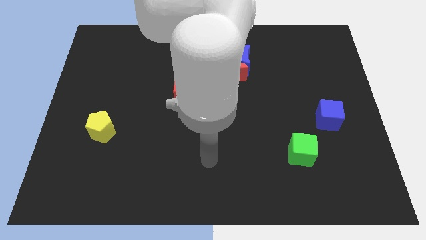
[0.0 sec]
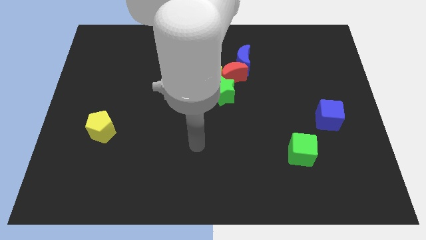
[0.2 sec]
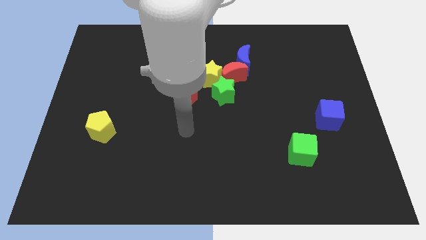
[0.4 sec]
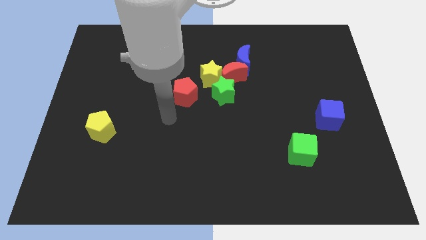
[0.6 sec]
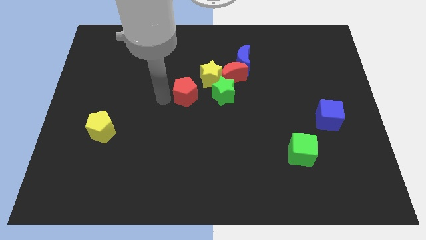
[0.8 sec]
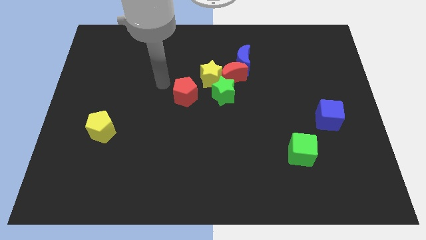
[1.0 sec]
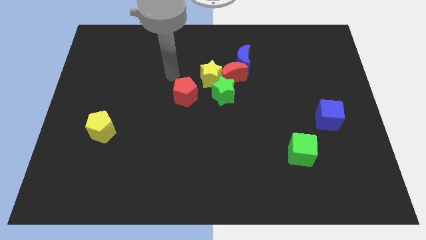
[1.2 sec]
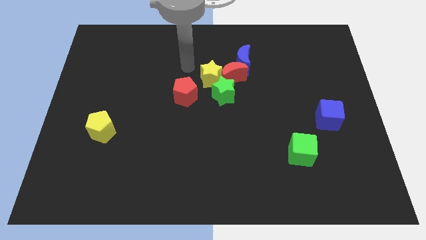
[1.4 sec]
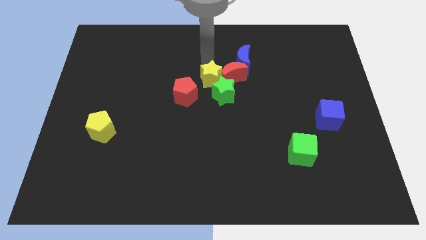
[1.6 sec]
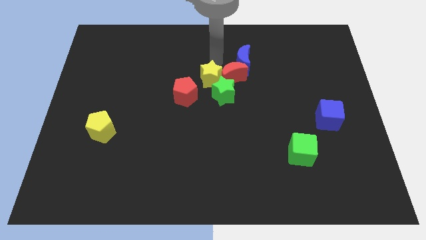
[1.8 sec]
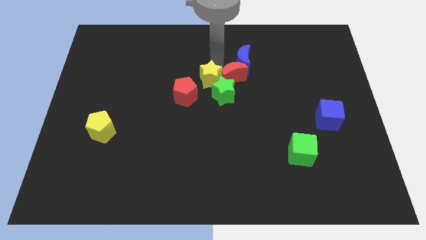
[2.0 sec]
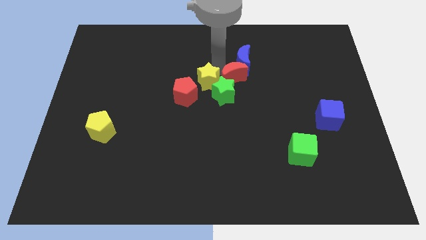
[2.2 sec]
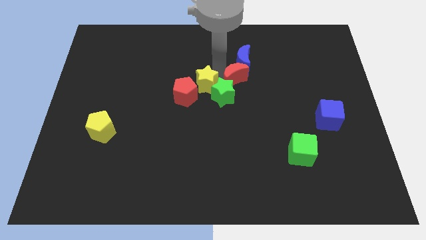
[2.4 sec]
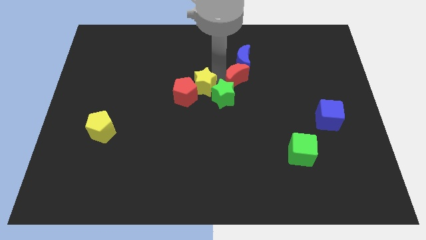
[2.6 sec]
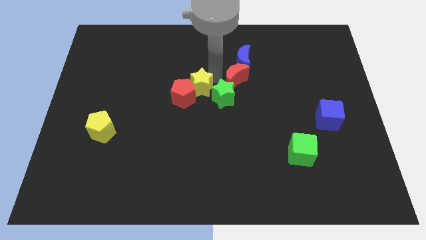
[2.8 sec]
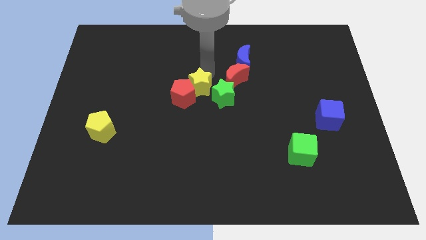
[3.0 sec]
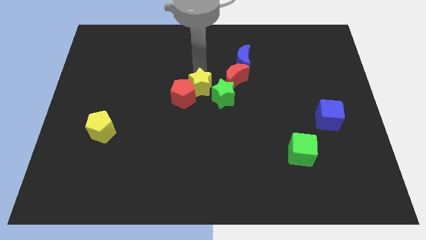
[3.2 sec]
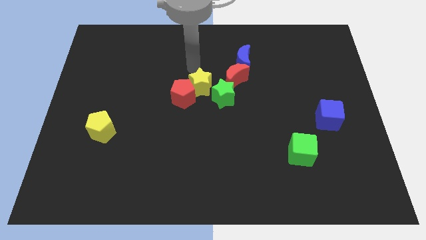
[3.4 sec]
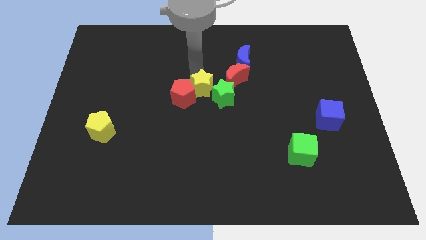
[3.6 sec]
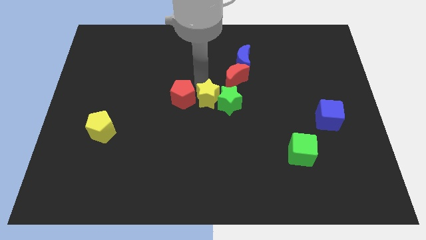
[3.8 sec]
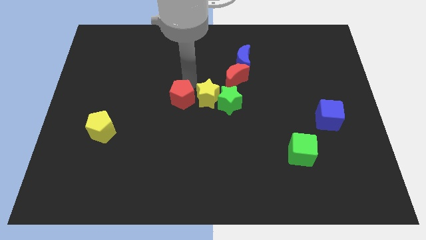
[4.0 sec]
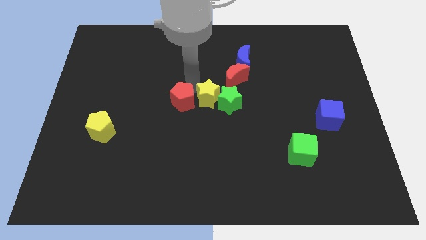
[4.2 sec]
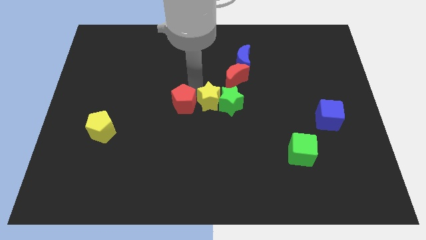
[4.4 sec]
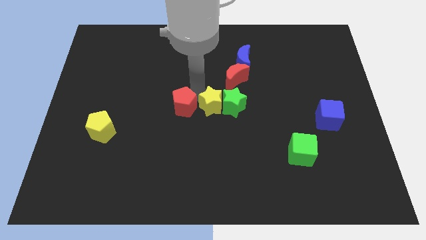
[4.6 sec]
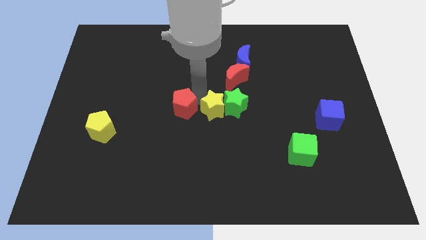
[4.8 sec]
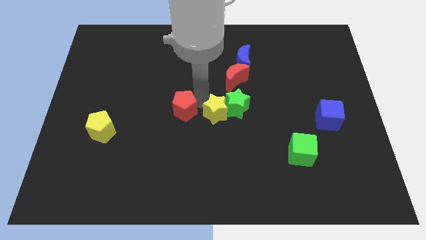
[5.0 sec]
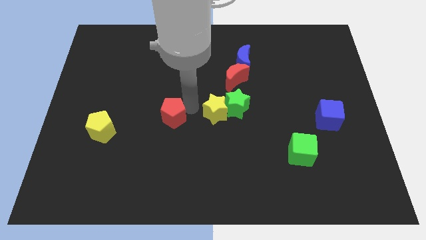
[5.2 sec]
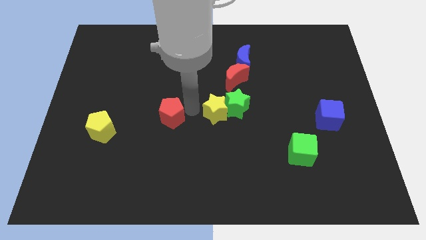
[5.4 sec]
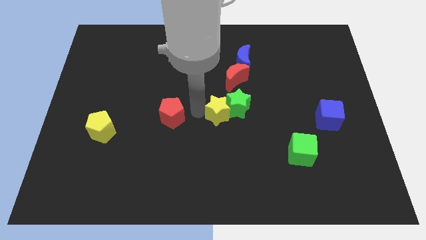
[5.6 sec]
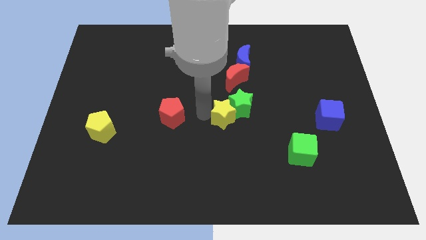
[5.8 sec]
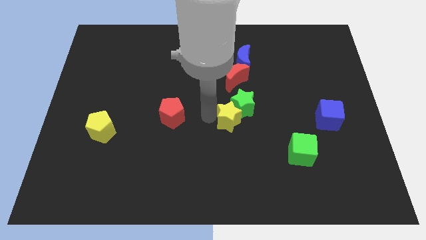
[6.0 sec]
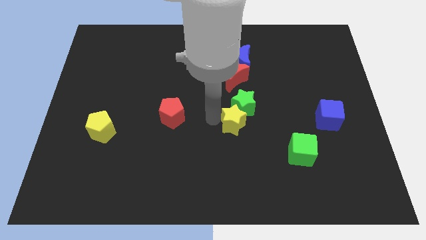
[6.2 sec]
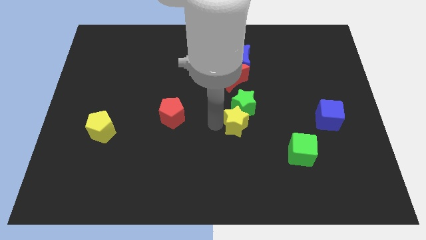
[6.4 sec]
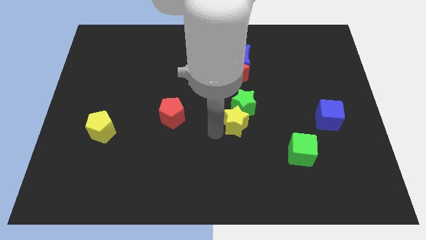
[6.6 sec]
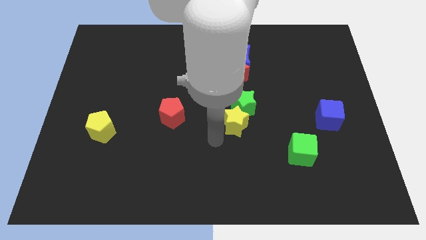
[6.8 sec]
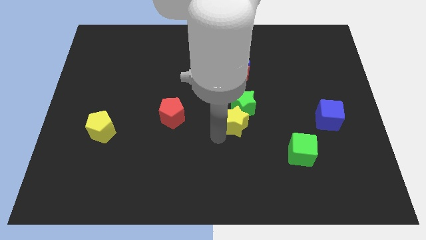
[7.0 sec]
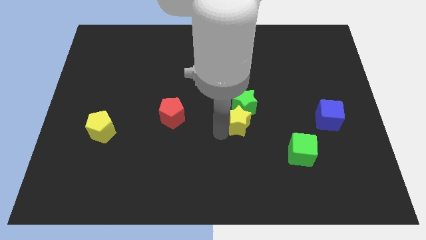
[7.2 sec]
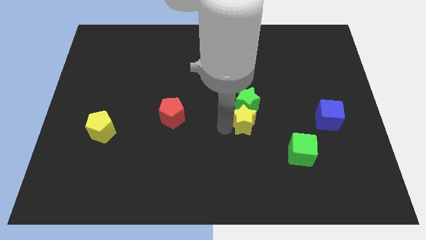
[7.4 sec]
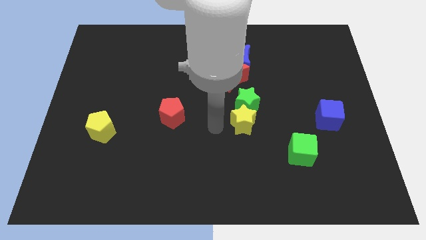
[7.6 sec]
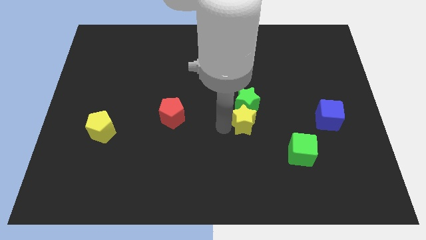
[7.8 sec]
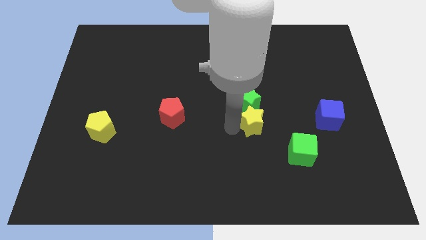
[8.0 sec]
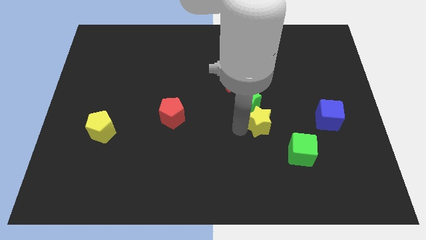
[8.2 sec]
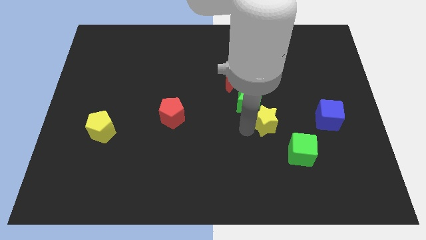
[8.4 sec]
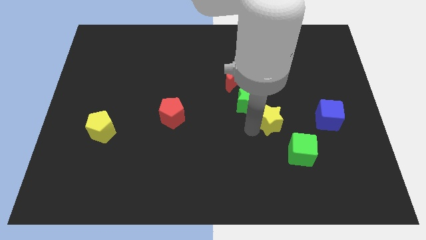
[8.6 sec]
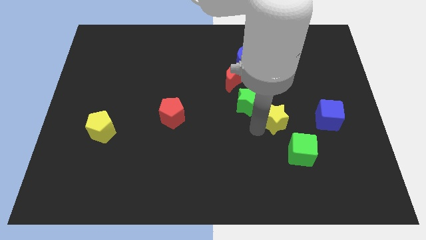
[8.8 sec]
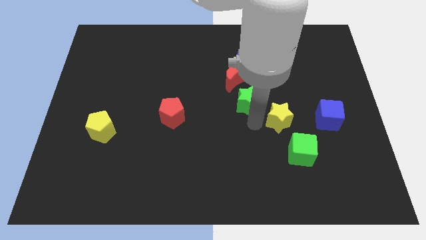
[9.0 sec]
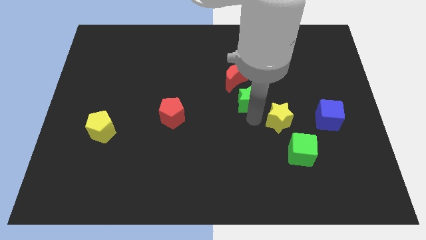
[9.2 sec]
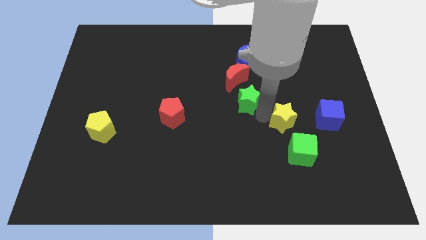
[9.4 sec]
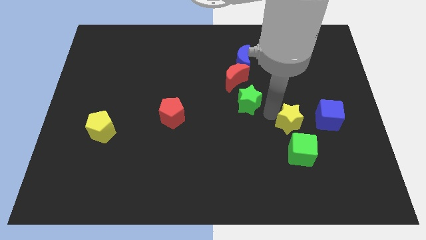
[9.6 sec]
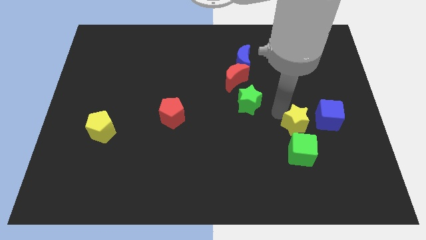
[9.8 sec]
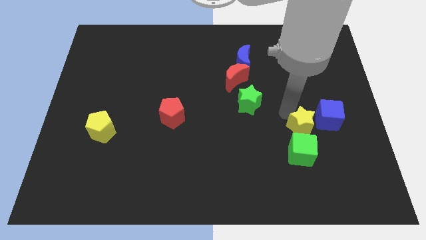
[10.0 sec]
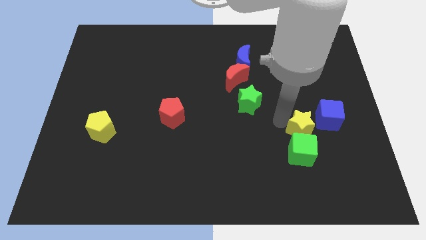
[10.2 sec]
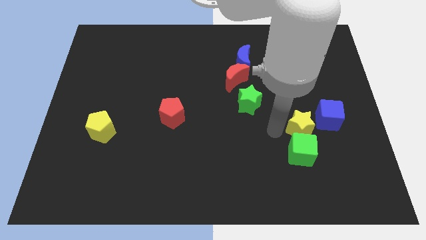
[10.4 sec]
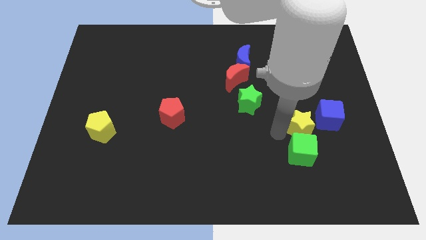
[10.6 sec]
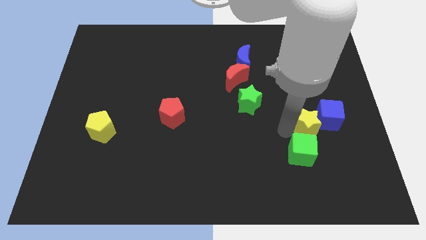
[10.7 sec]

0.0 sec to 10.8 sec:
push the yellow star close to the blue cube

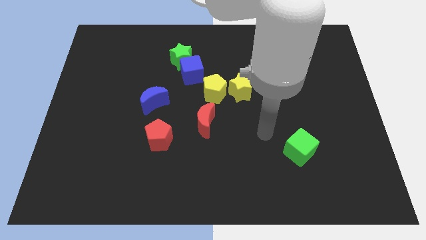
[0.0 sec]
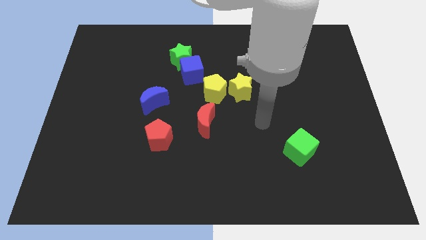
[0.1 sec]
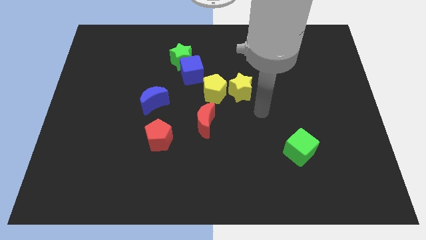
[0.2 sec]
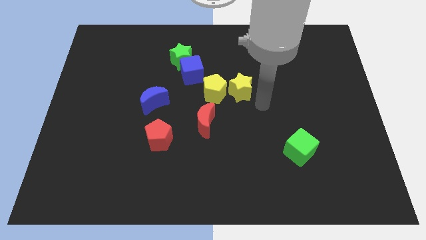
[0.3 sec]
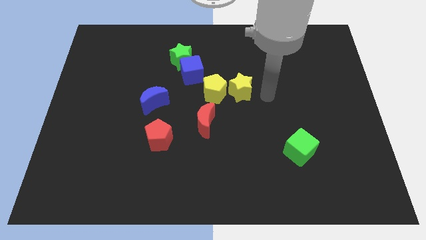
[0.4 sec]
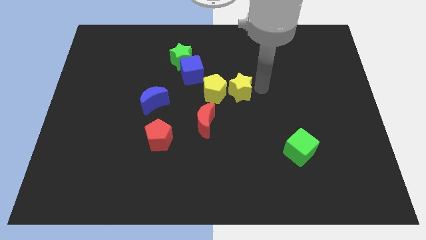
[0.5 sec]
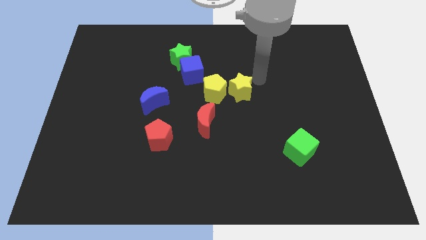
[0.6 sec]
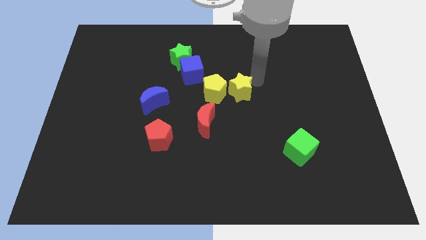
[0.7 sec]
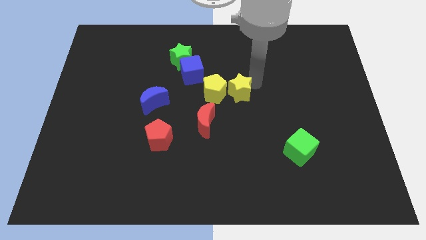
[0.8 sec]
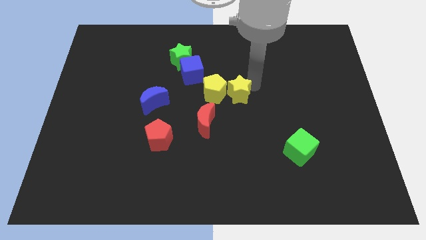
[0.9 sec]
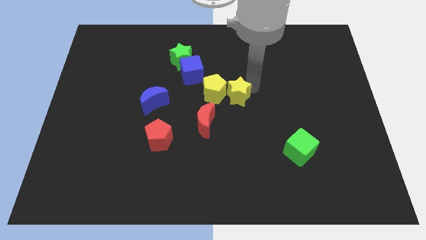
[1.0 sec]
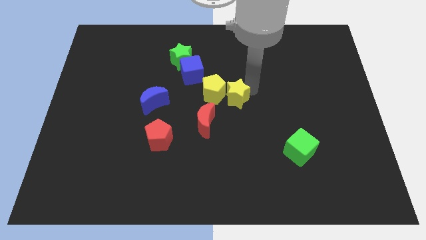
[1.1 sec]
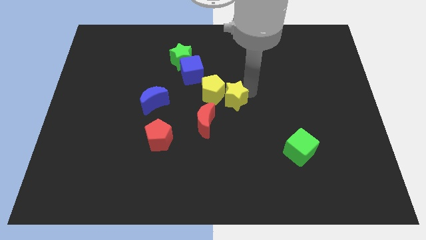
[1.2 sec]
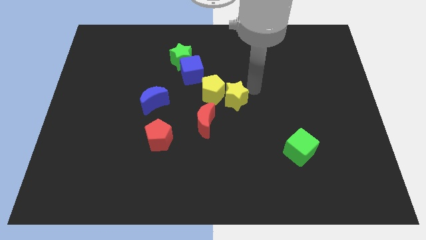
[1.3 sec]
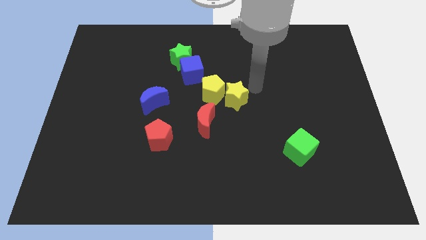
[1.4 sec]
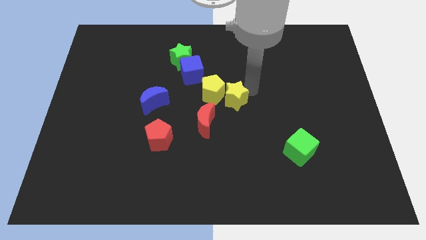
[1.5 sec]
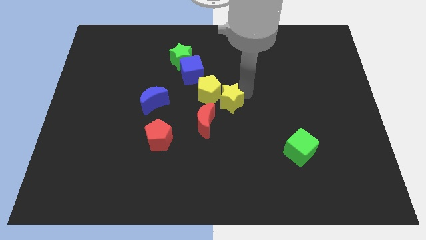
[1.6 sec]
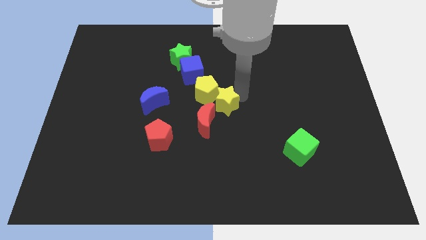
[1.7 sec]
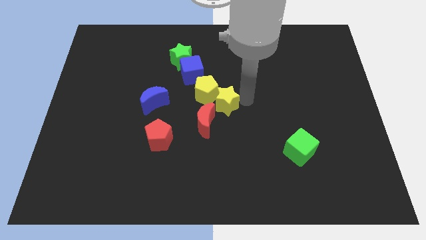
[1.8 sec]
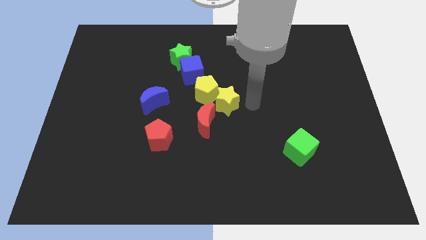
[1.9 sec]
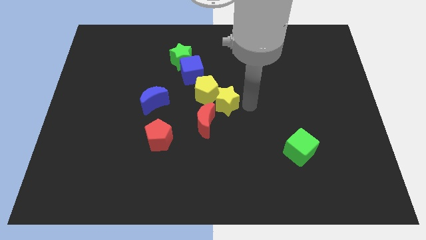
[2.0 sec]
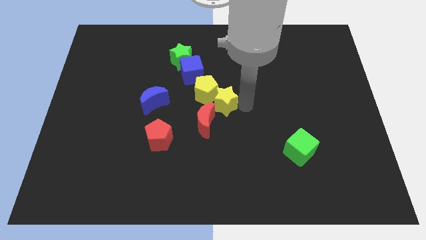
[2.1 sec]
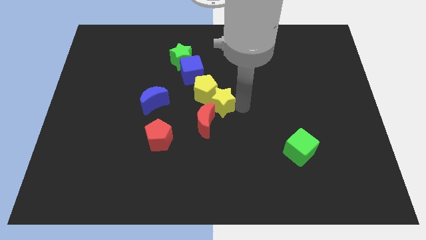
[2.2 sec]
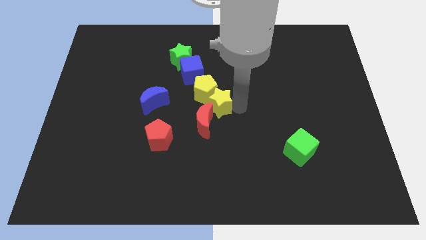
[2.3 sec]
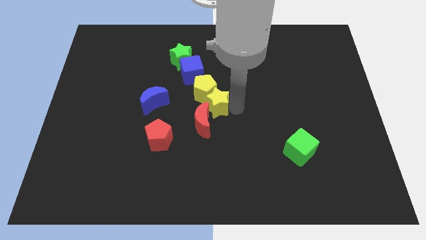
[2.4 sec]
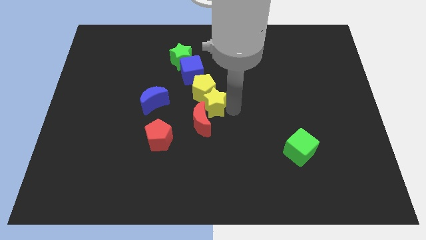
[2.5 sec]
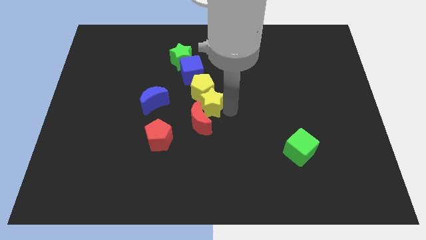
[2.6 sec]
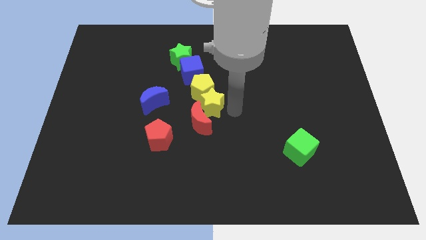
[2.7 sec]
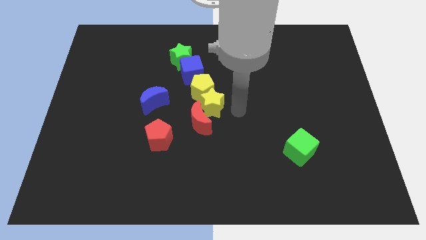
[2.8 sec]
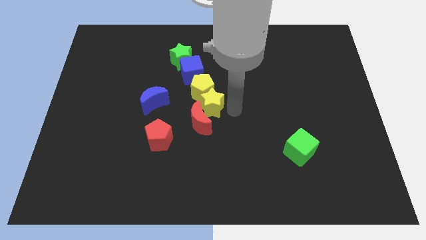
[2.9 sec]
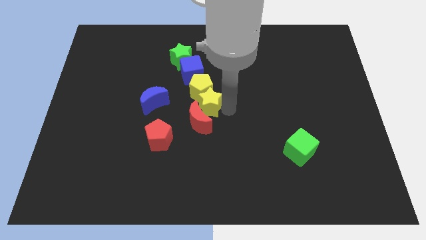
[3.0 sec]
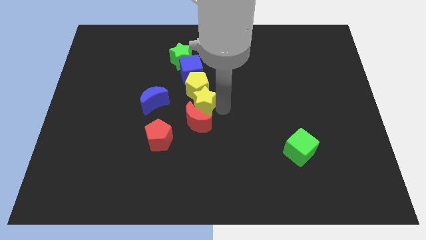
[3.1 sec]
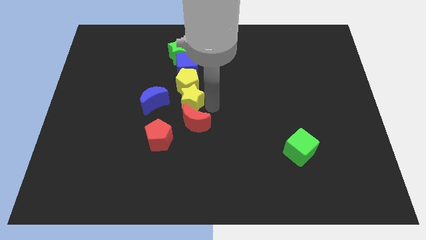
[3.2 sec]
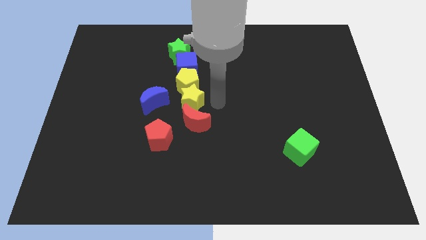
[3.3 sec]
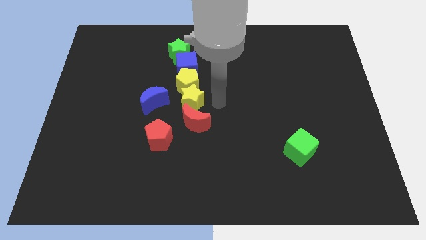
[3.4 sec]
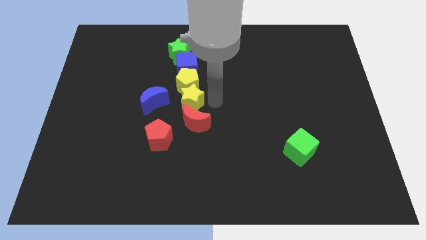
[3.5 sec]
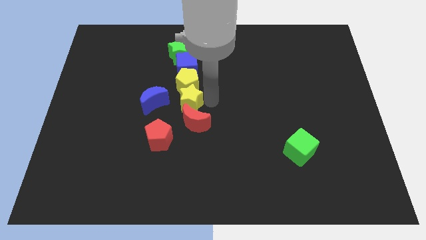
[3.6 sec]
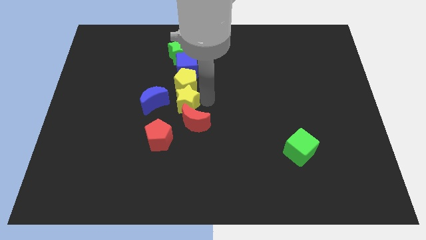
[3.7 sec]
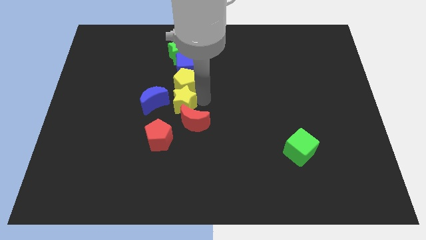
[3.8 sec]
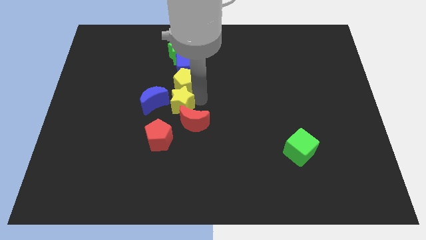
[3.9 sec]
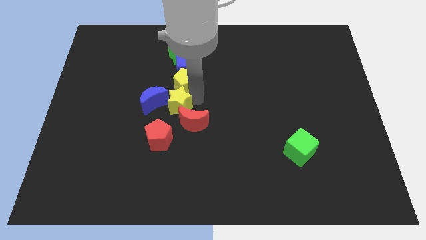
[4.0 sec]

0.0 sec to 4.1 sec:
slide the yellow star close to the blue moon
